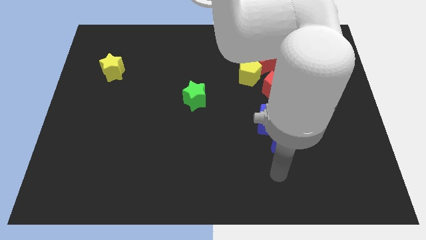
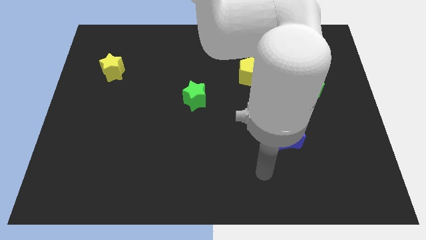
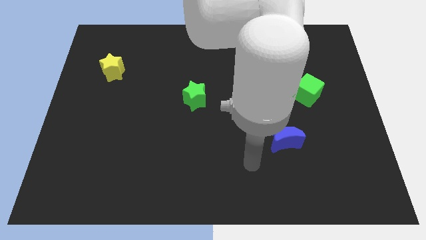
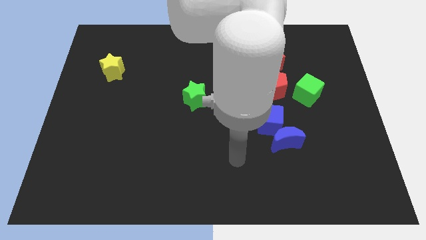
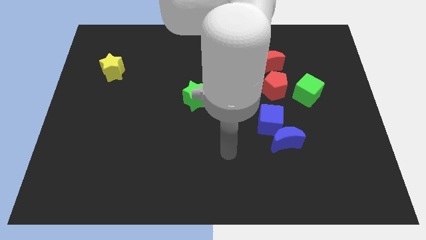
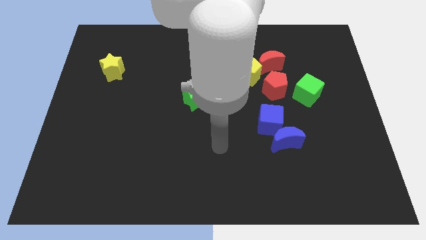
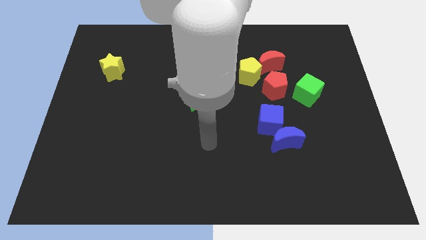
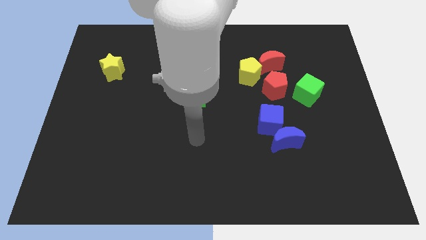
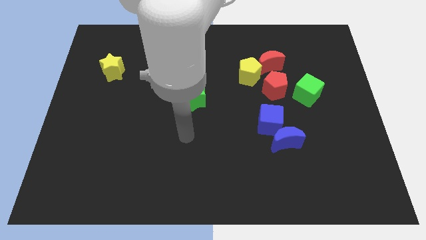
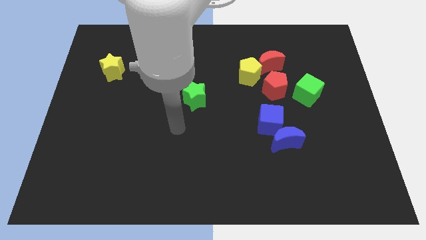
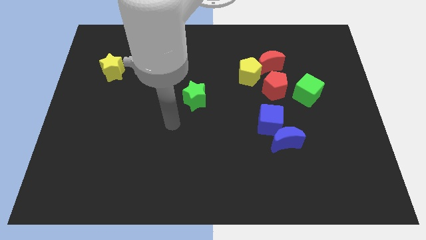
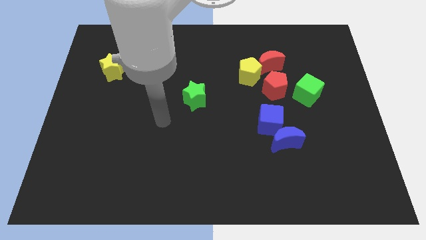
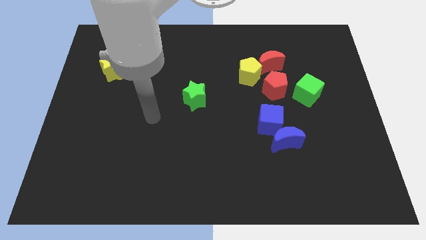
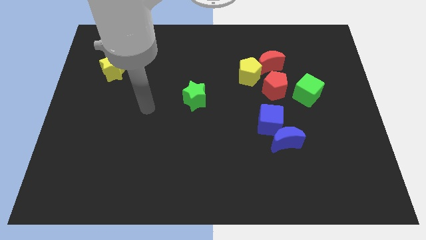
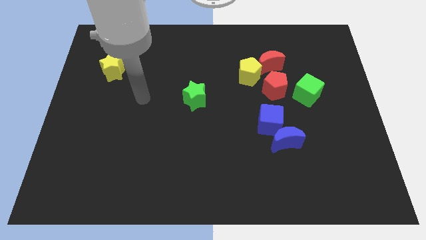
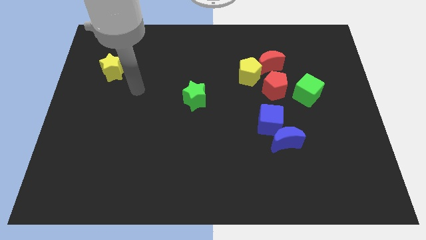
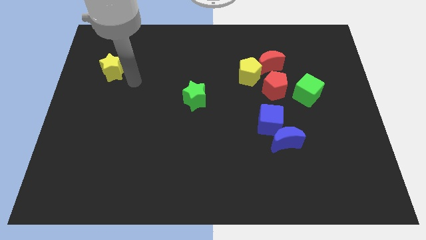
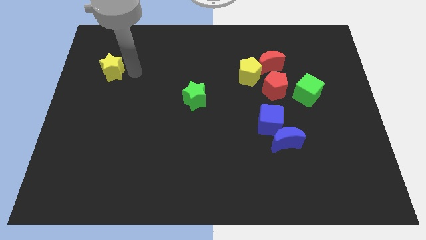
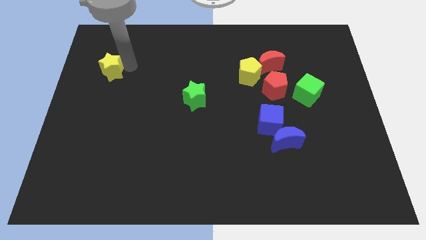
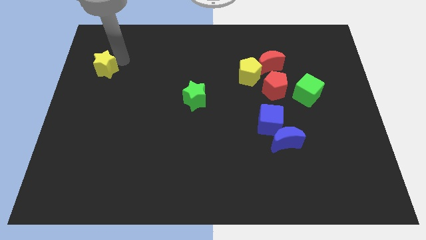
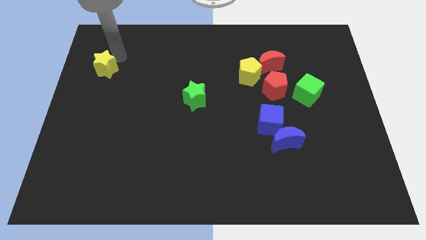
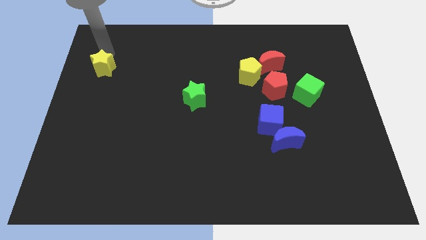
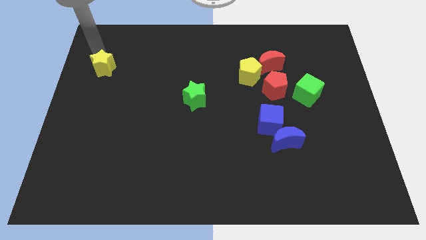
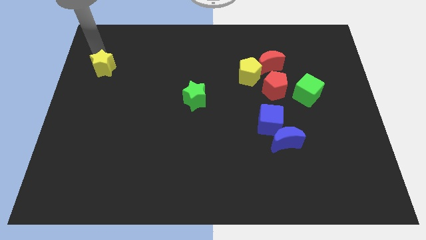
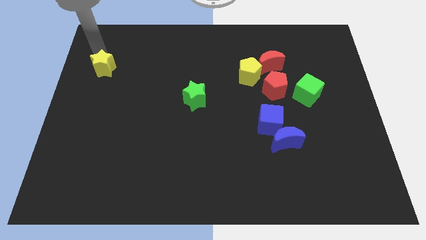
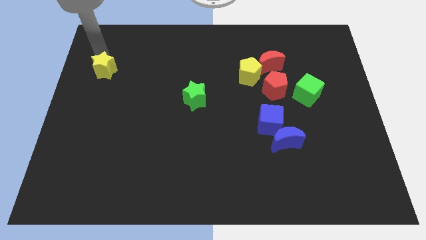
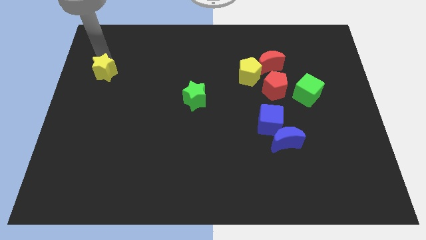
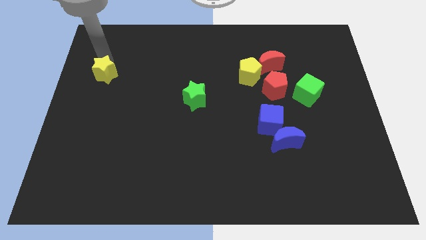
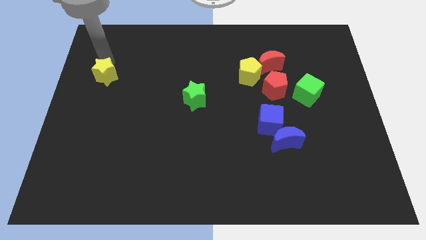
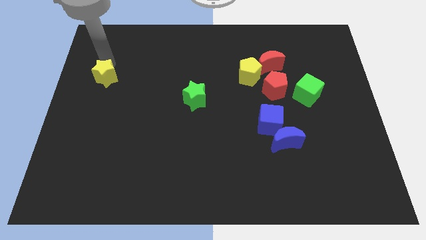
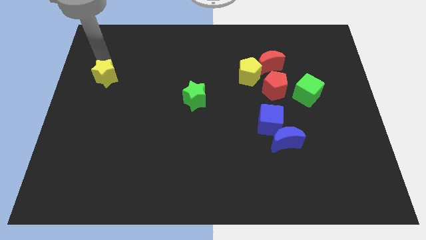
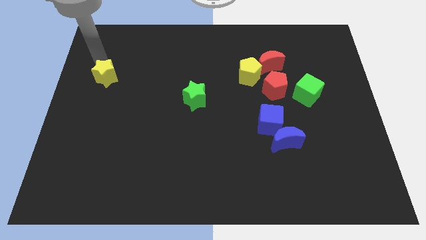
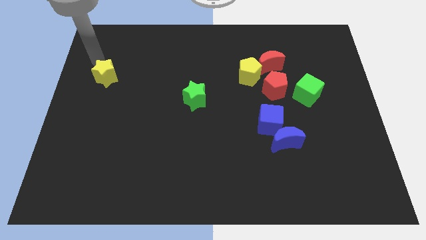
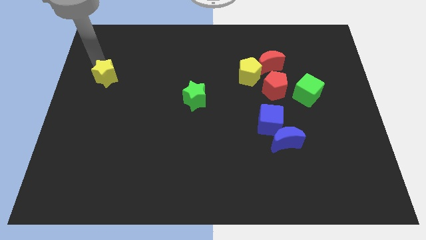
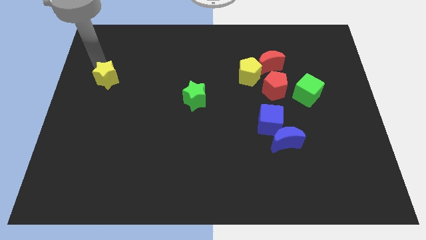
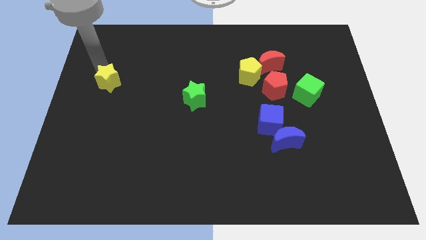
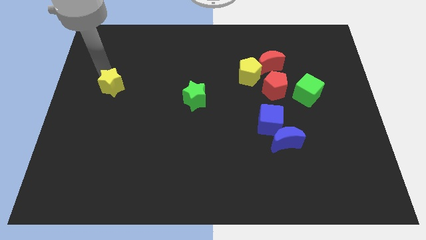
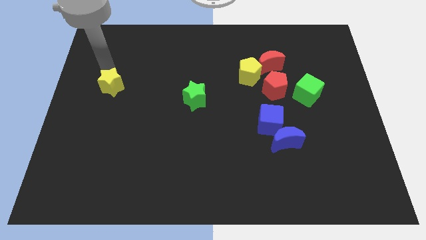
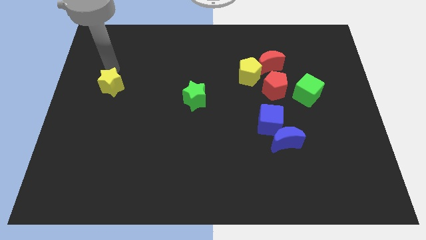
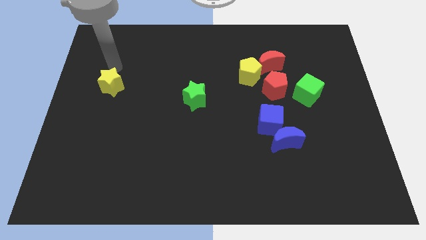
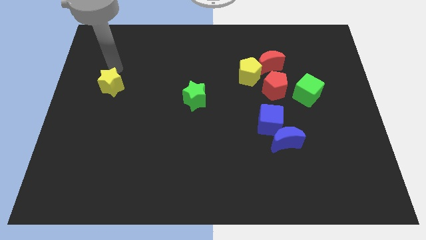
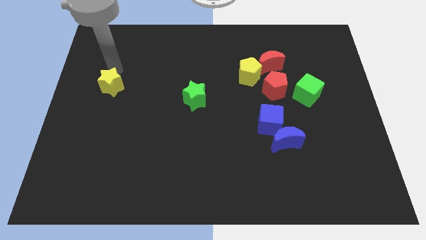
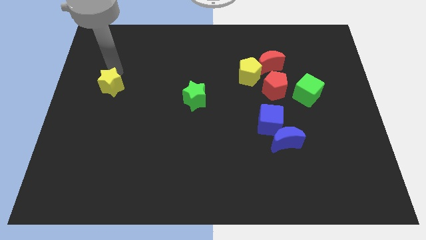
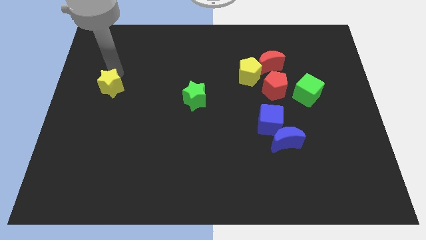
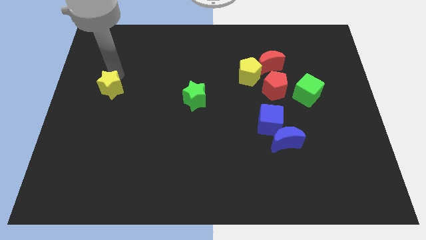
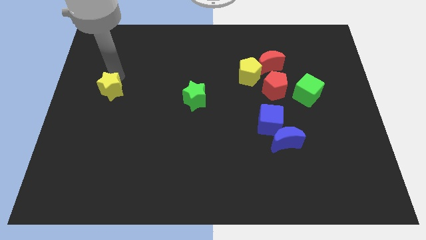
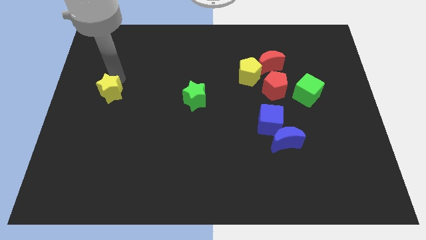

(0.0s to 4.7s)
slide the yellow star down a little bit

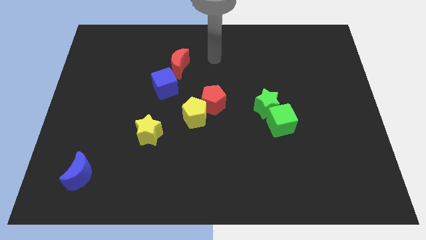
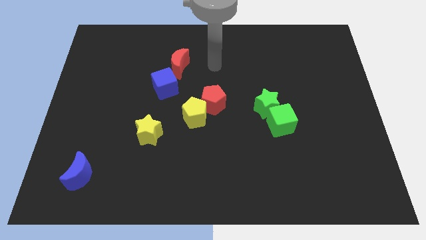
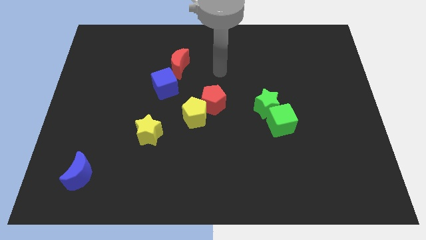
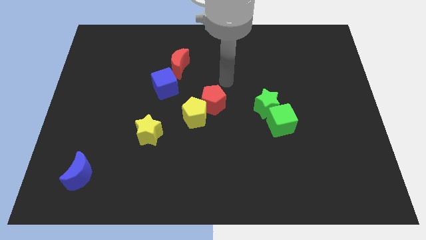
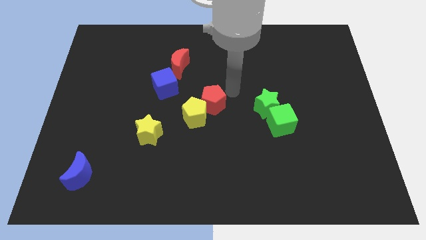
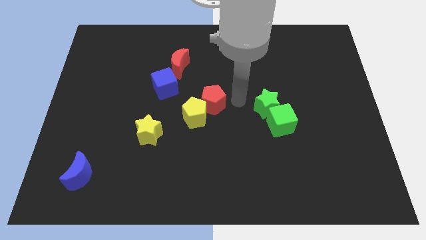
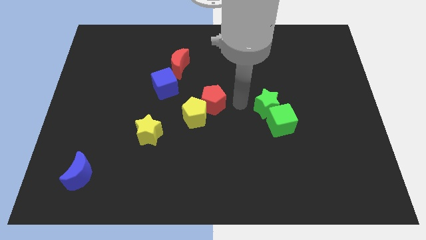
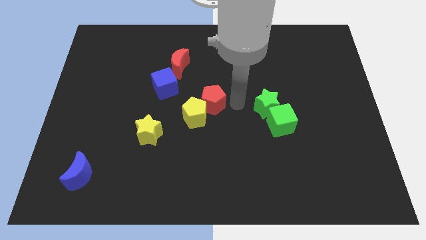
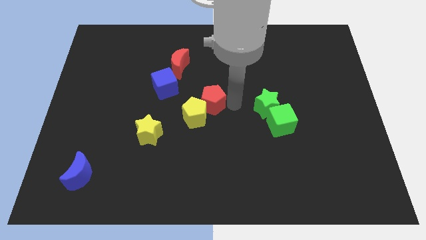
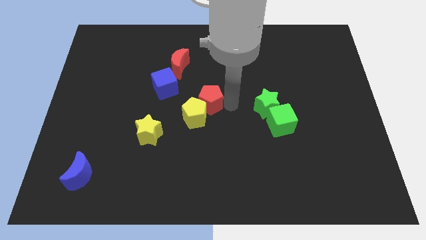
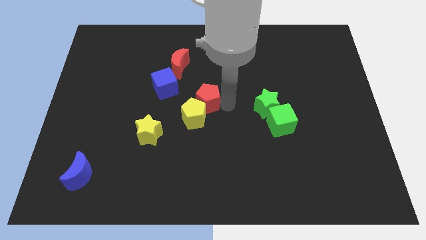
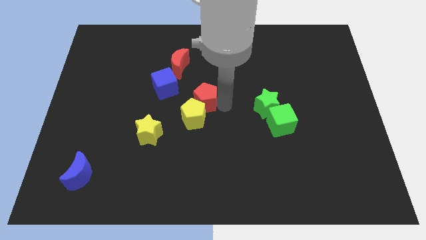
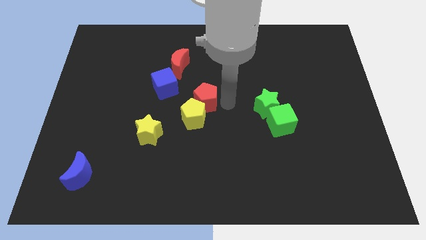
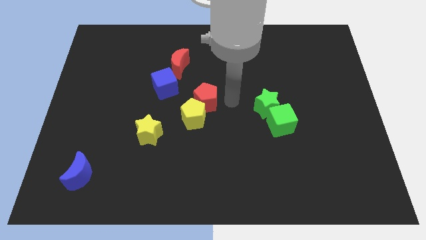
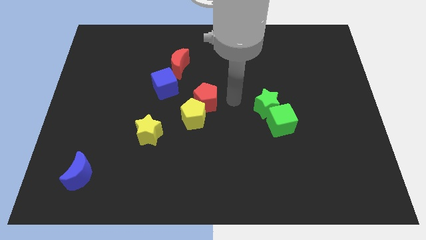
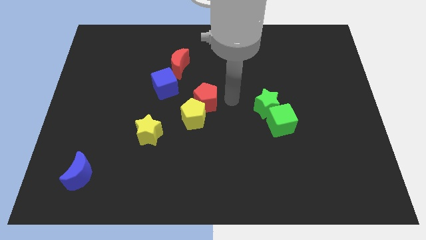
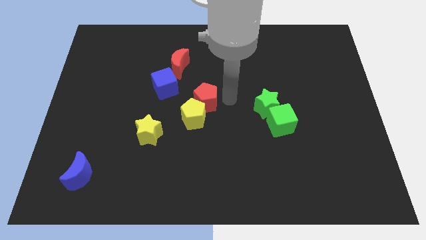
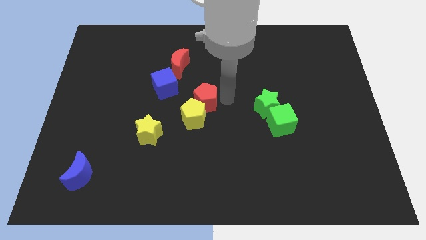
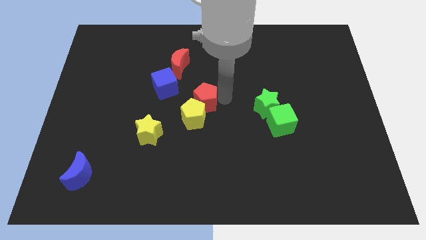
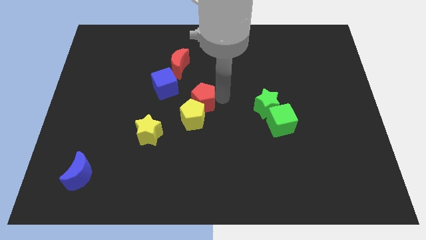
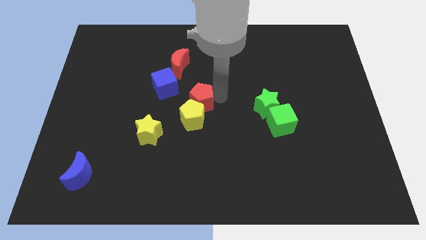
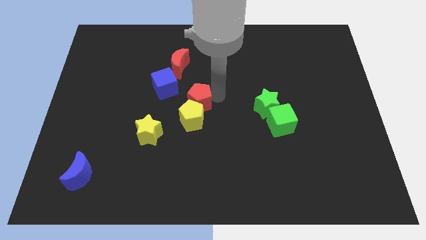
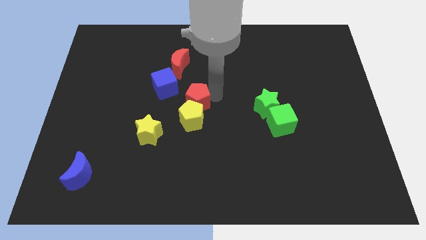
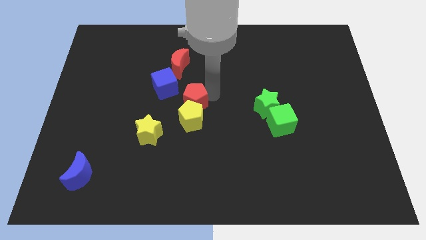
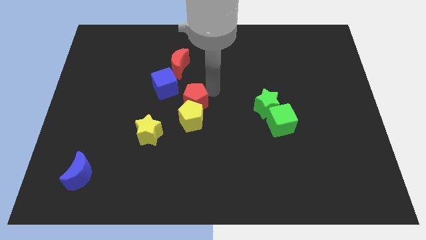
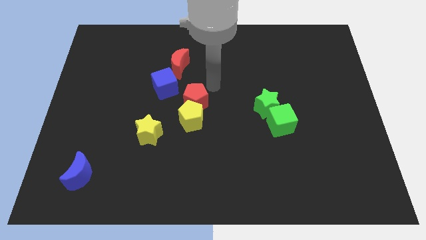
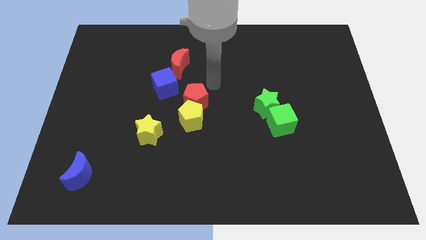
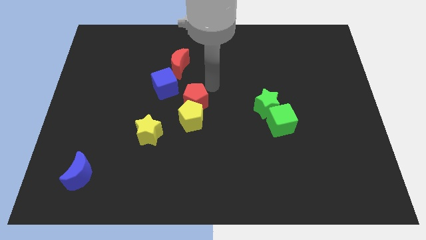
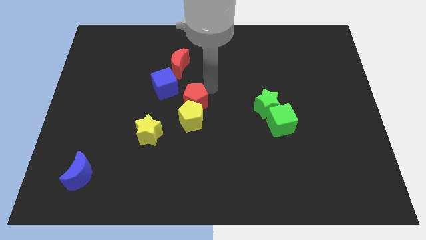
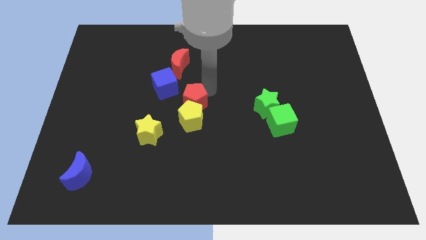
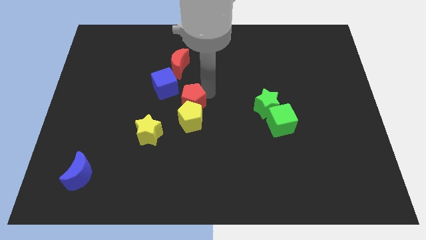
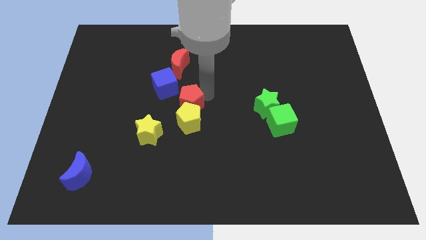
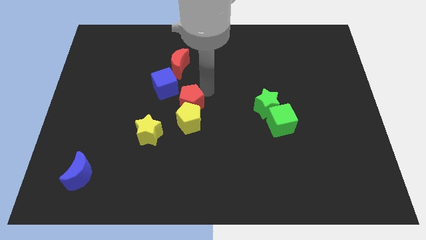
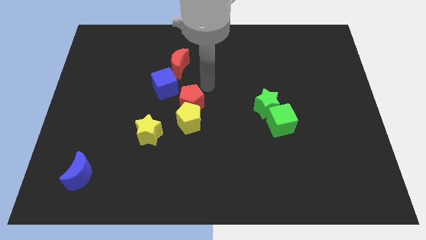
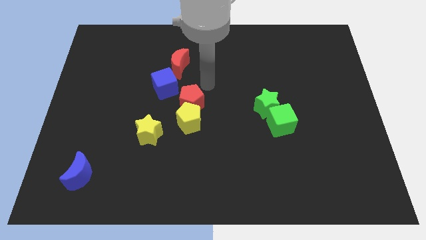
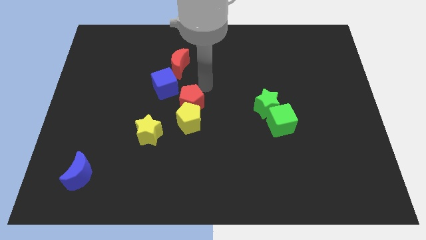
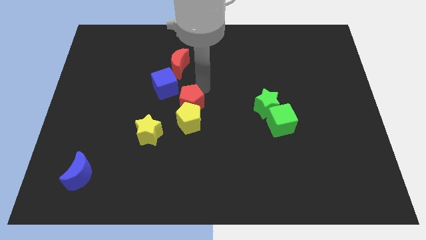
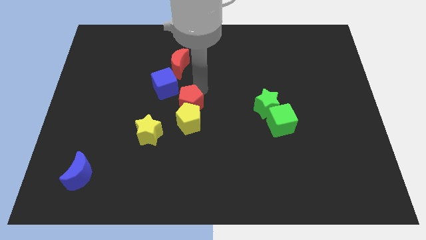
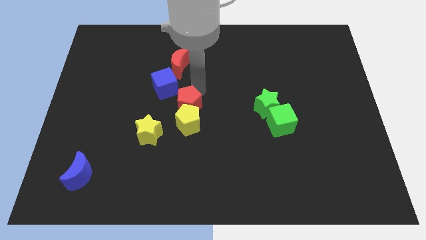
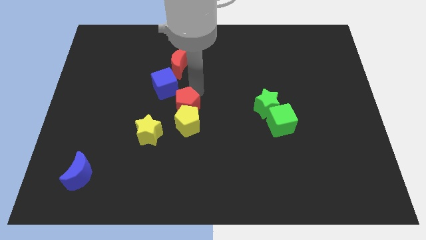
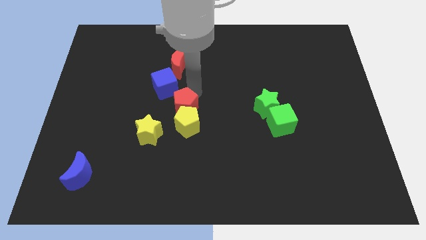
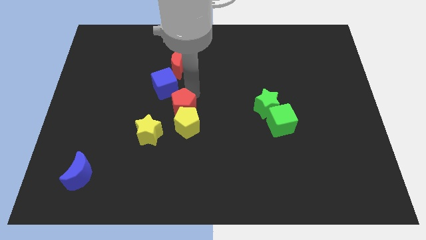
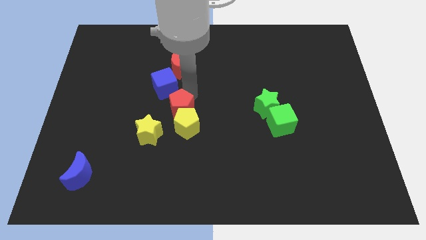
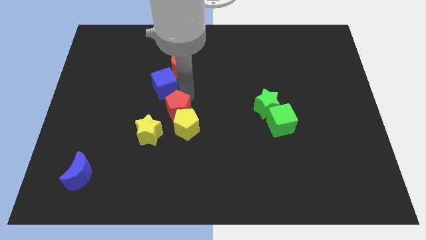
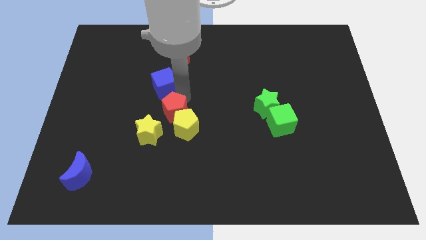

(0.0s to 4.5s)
slide the red pentagon down and left a little
